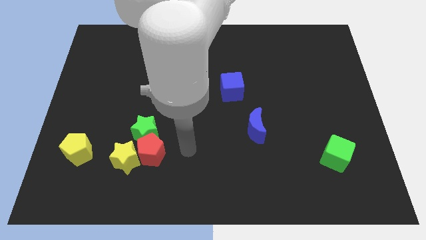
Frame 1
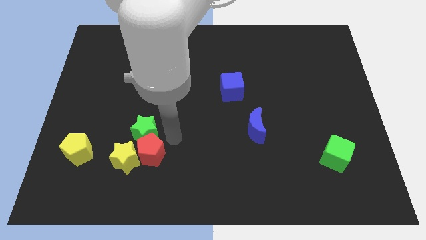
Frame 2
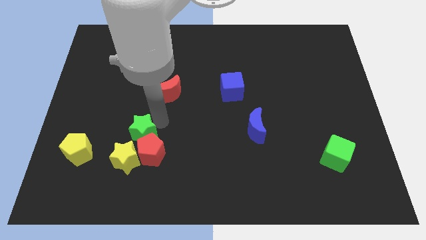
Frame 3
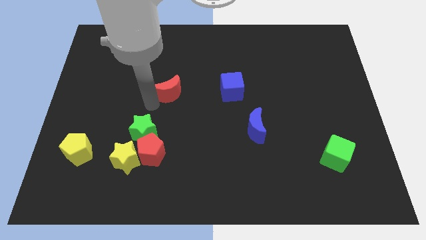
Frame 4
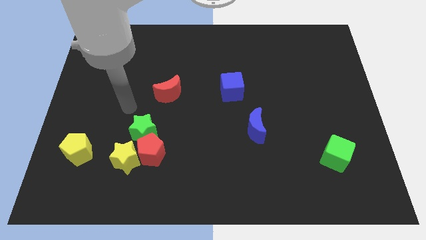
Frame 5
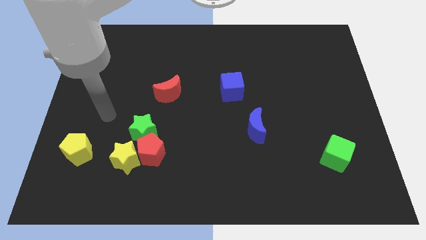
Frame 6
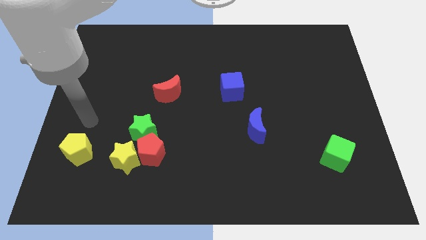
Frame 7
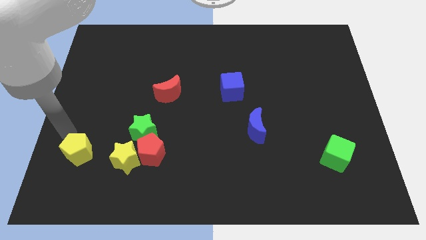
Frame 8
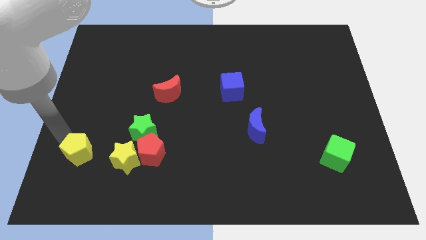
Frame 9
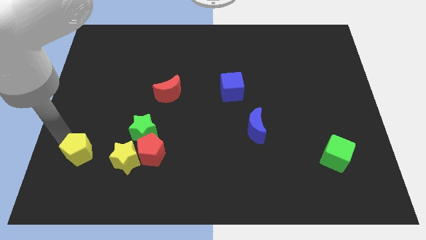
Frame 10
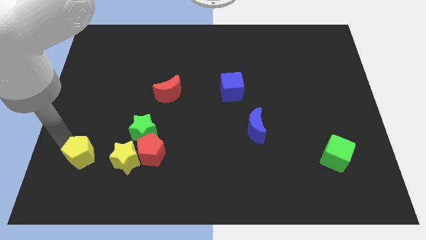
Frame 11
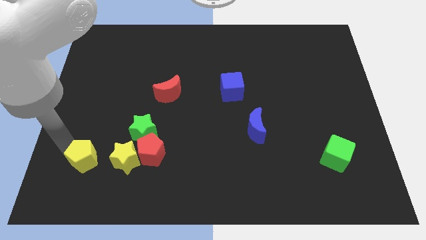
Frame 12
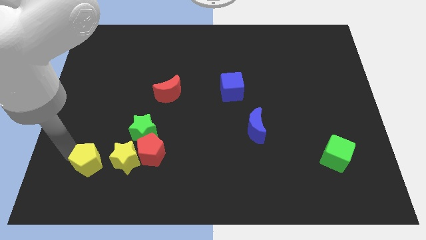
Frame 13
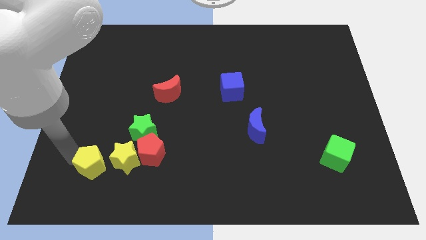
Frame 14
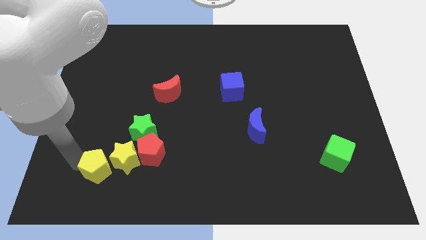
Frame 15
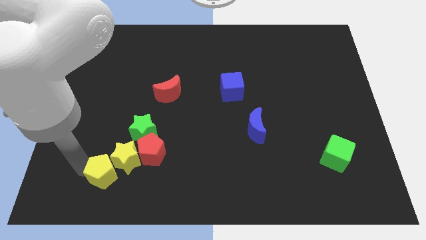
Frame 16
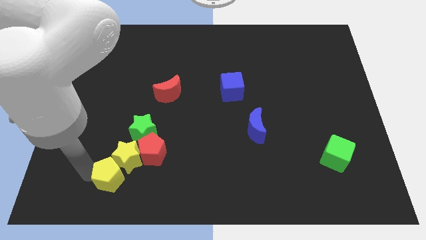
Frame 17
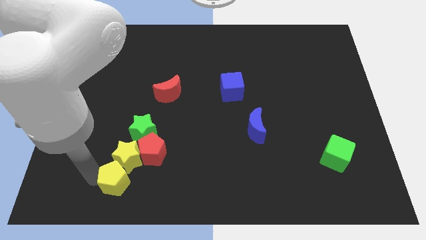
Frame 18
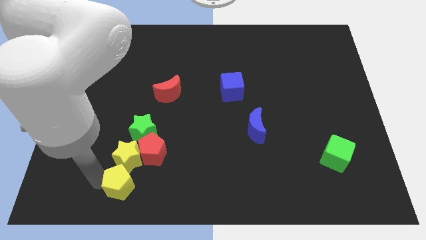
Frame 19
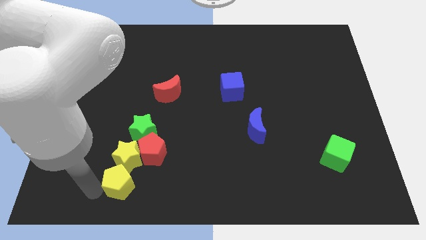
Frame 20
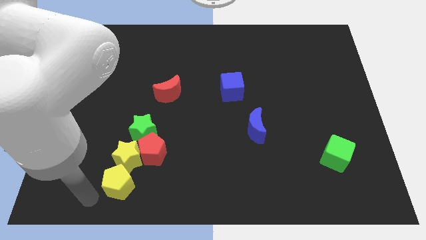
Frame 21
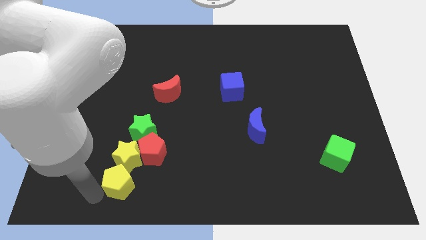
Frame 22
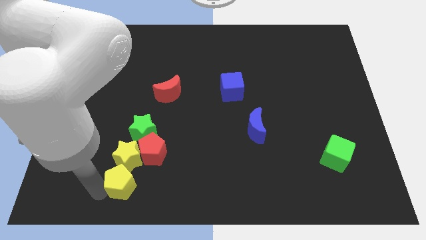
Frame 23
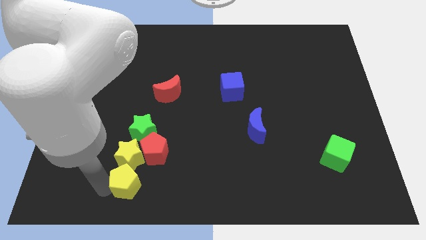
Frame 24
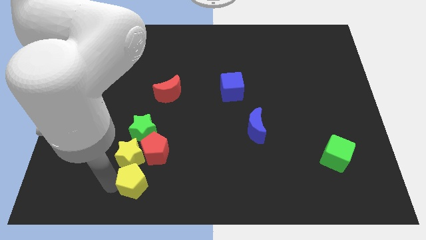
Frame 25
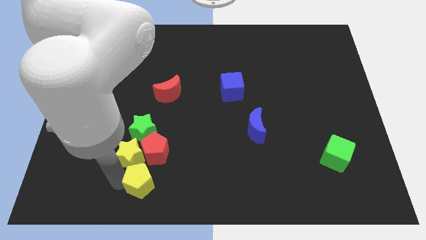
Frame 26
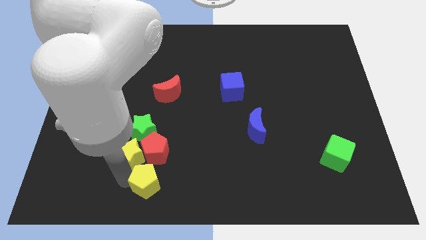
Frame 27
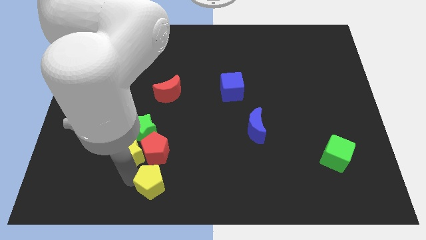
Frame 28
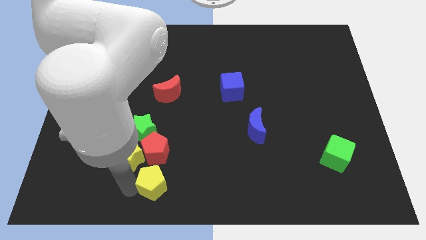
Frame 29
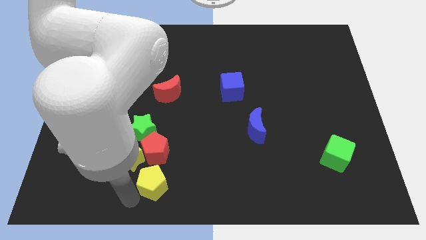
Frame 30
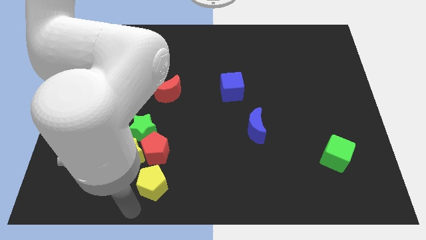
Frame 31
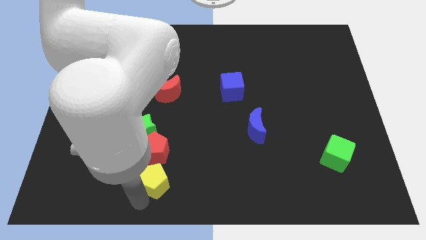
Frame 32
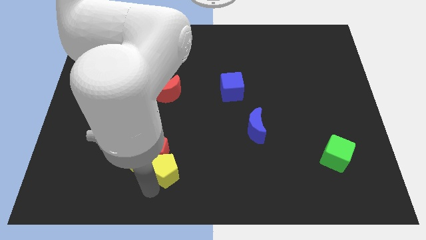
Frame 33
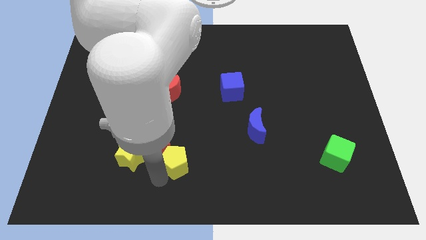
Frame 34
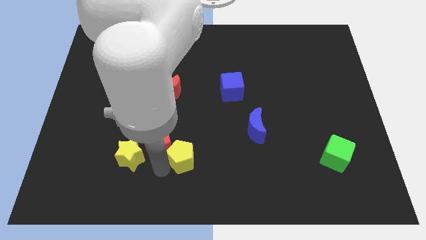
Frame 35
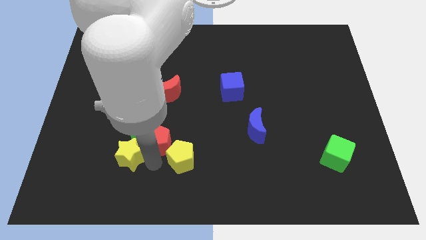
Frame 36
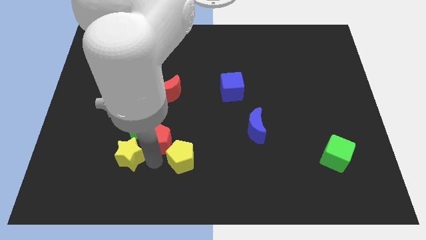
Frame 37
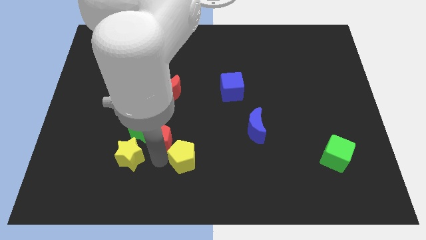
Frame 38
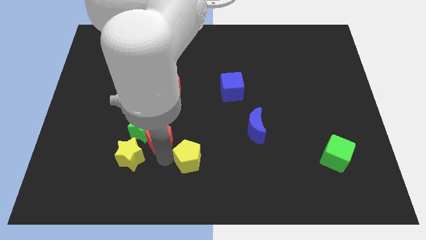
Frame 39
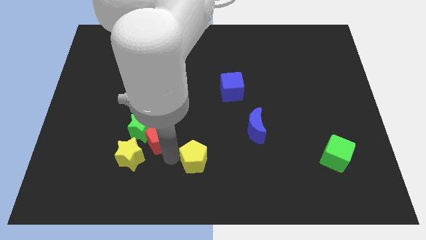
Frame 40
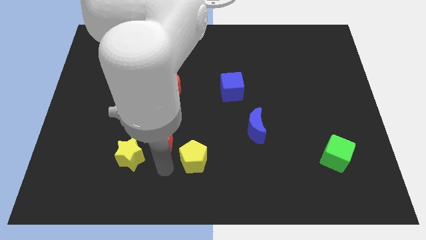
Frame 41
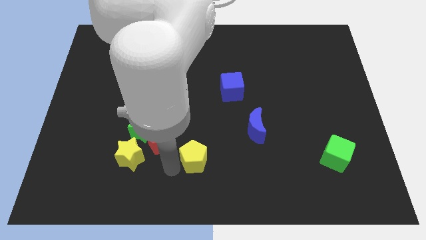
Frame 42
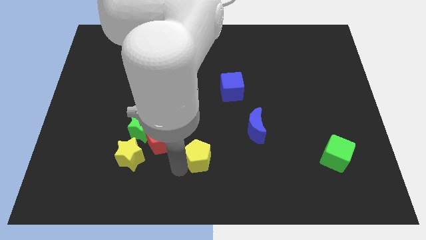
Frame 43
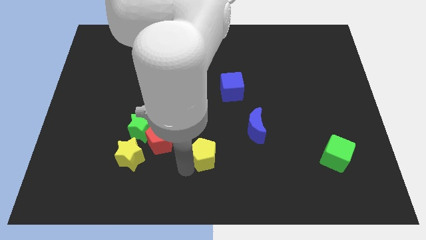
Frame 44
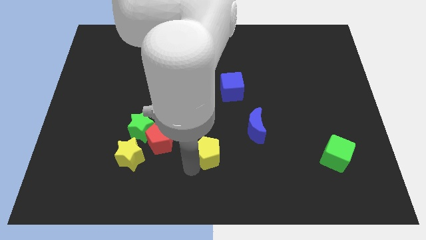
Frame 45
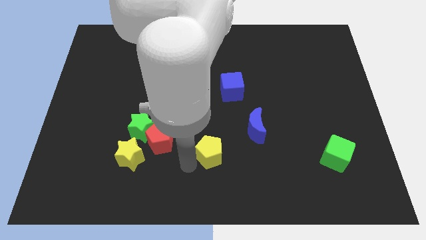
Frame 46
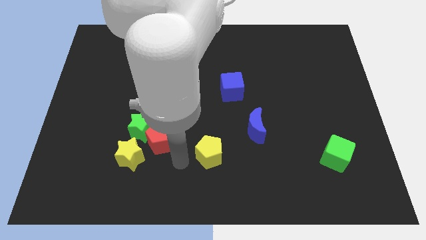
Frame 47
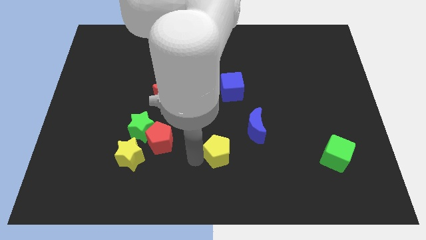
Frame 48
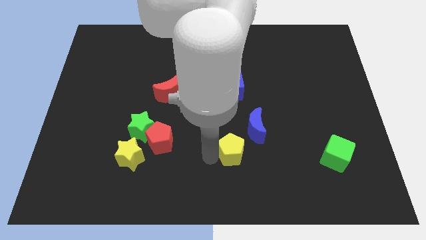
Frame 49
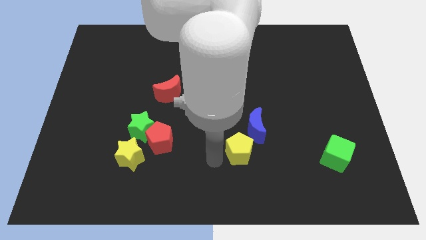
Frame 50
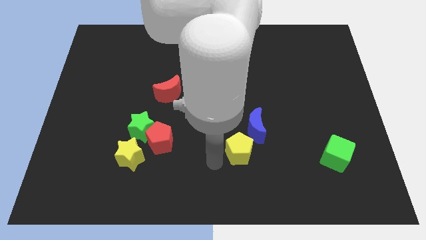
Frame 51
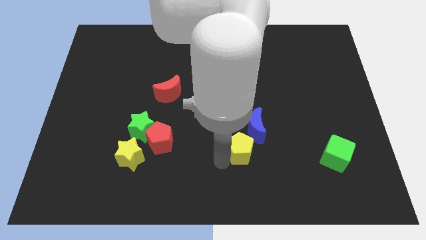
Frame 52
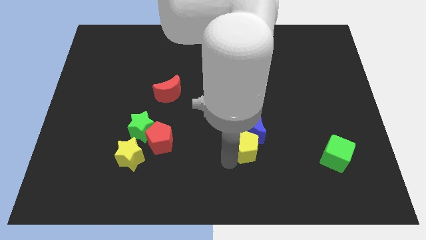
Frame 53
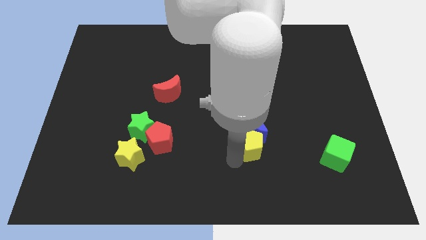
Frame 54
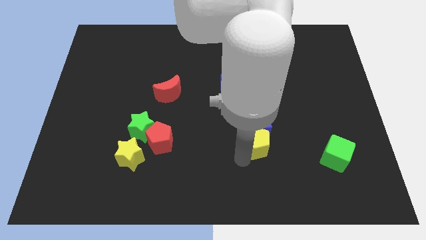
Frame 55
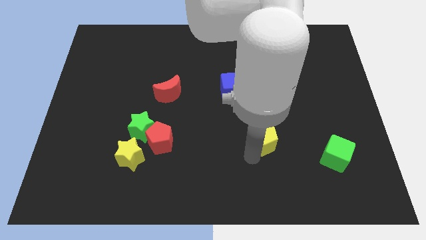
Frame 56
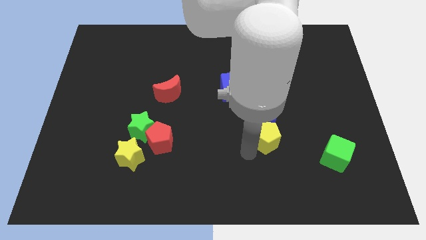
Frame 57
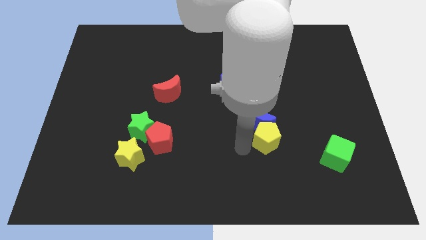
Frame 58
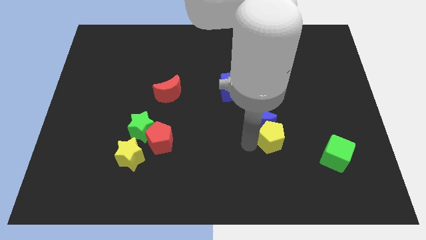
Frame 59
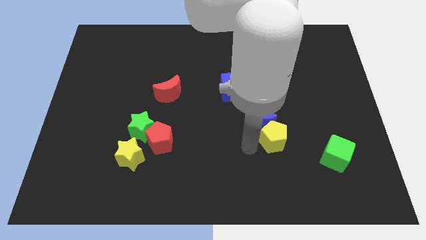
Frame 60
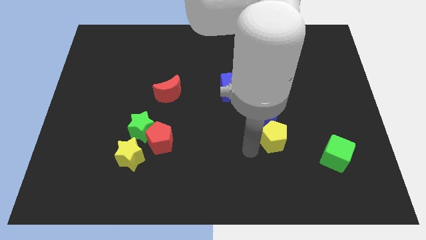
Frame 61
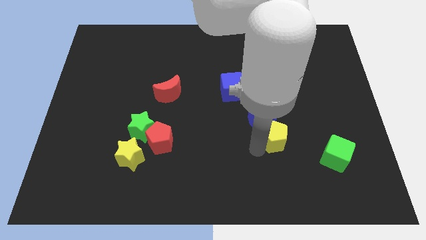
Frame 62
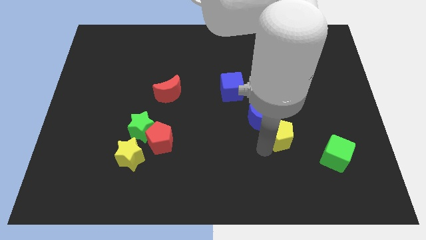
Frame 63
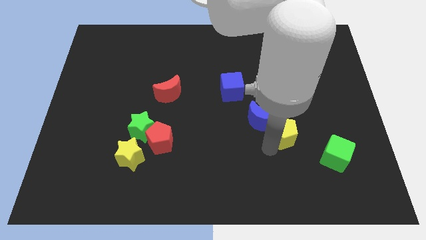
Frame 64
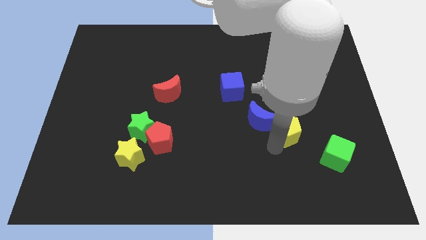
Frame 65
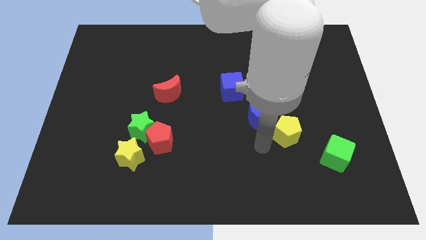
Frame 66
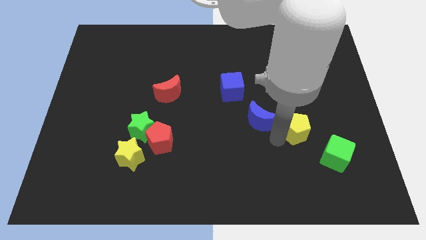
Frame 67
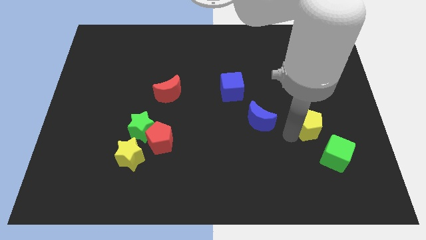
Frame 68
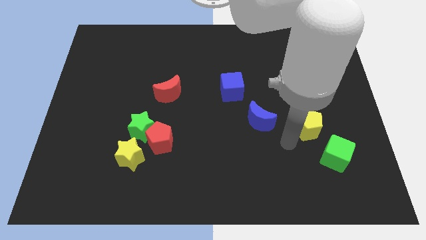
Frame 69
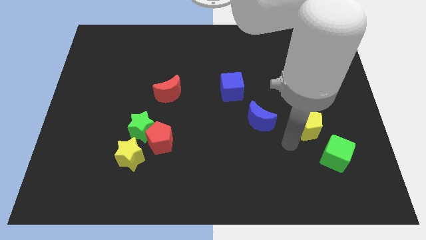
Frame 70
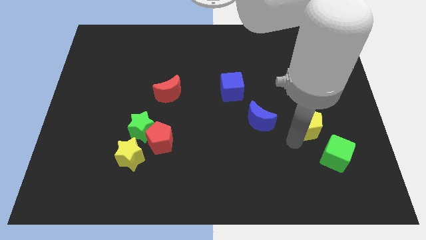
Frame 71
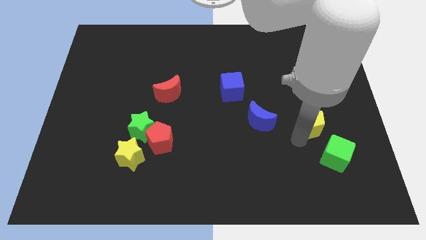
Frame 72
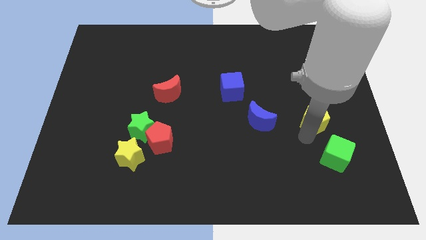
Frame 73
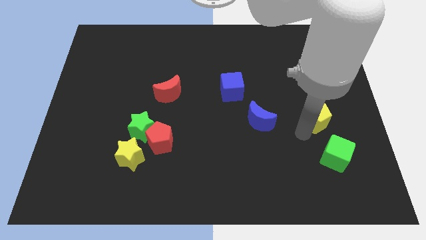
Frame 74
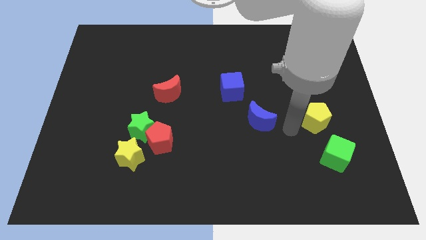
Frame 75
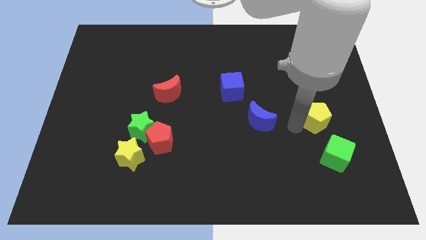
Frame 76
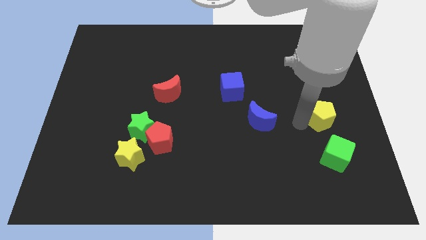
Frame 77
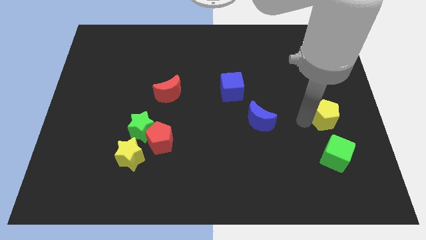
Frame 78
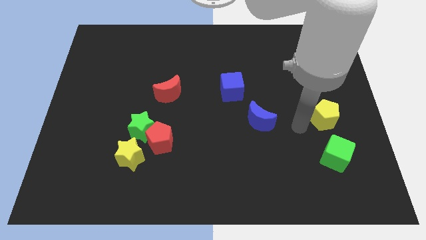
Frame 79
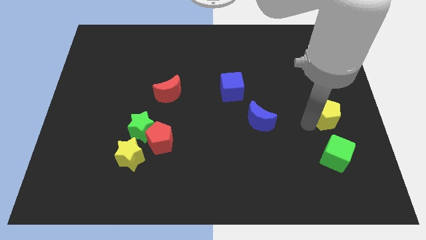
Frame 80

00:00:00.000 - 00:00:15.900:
move the yellow pentagon to the right side
